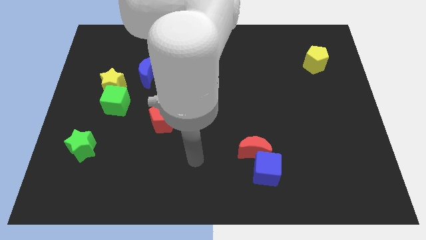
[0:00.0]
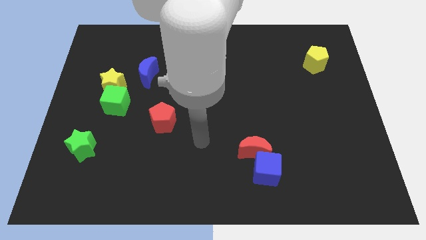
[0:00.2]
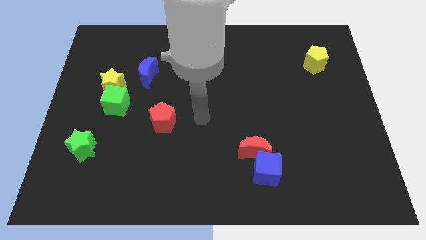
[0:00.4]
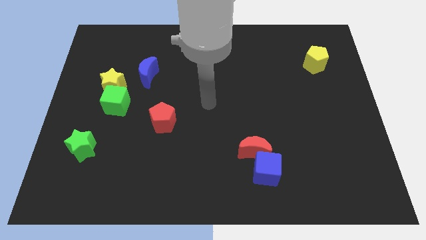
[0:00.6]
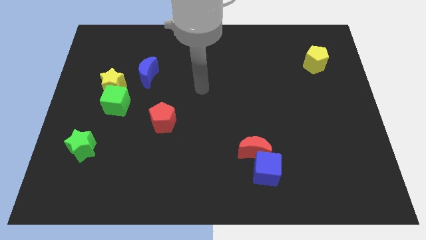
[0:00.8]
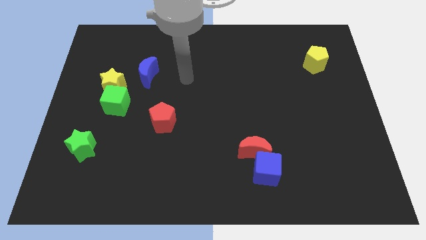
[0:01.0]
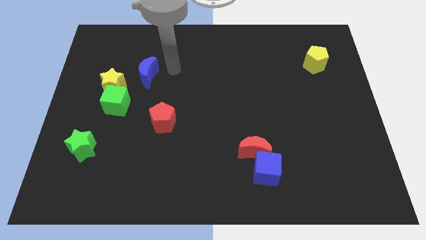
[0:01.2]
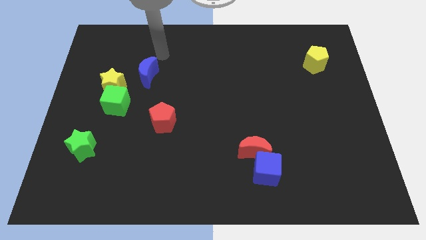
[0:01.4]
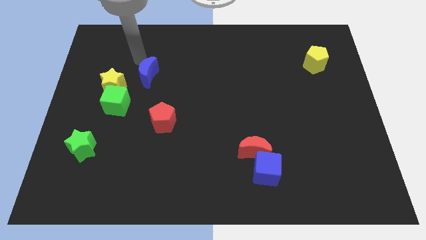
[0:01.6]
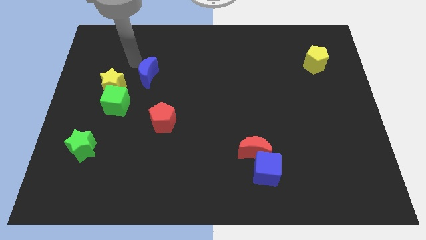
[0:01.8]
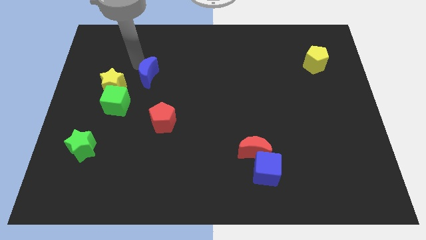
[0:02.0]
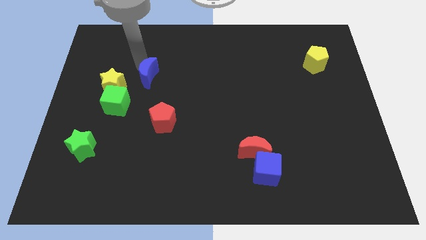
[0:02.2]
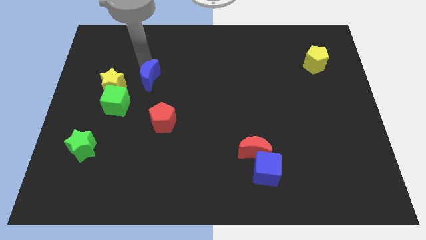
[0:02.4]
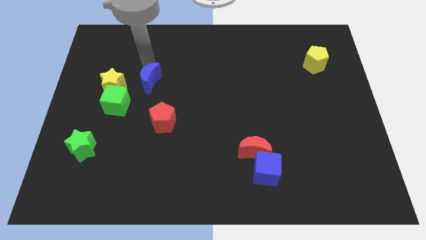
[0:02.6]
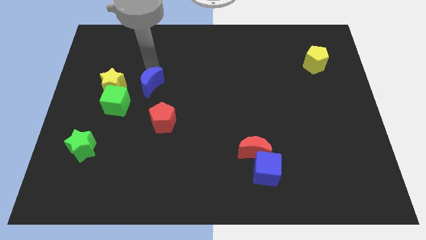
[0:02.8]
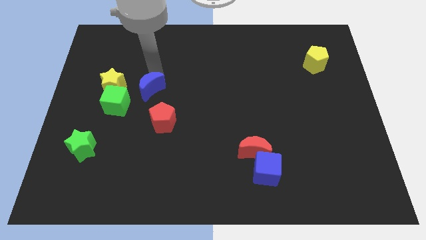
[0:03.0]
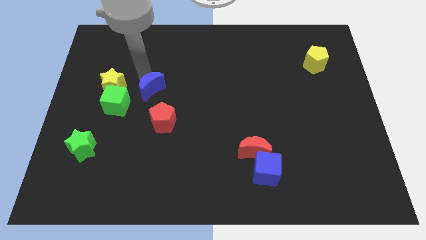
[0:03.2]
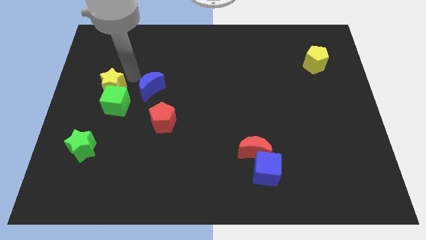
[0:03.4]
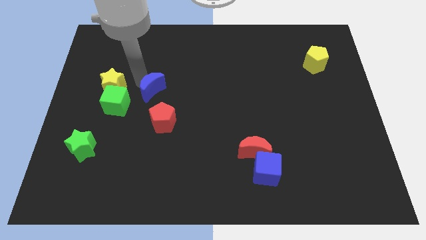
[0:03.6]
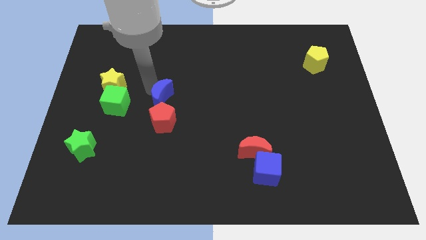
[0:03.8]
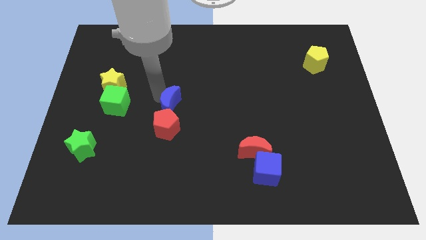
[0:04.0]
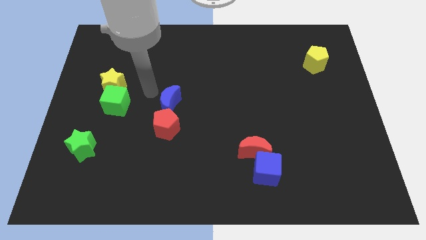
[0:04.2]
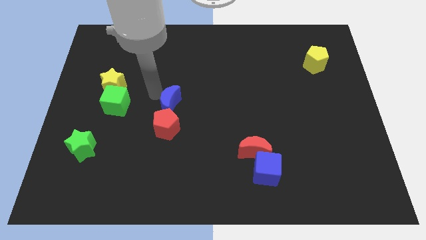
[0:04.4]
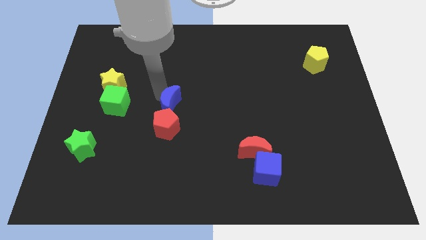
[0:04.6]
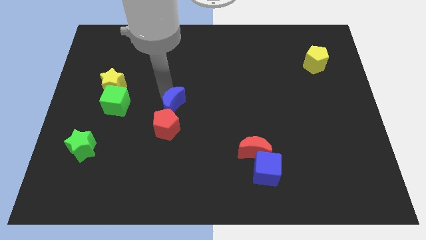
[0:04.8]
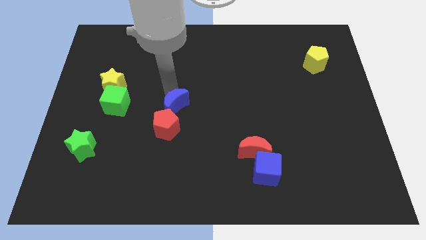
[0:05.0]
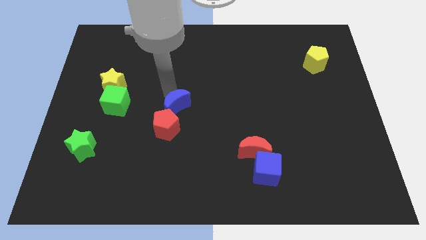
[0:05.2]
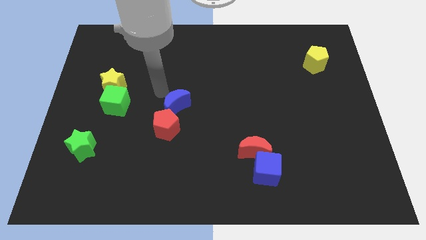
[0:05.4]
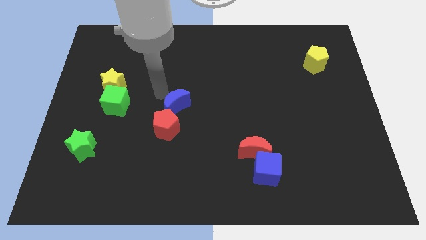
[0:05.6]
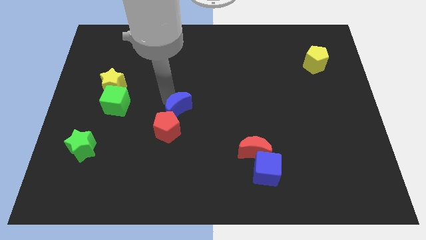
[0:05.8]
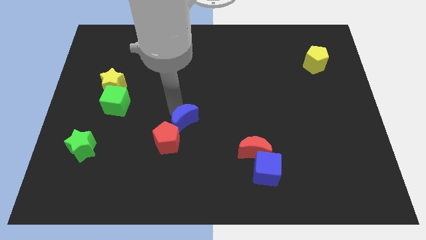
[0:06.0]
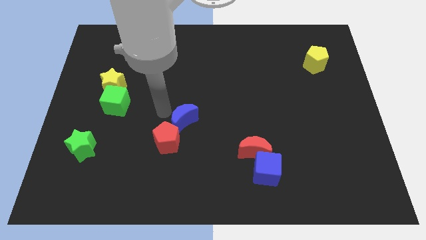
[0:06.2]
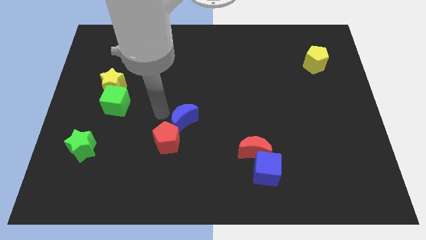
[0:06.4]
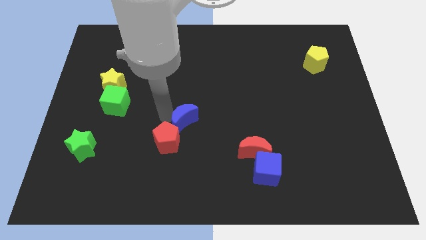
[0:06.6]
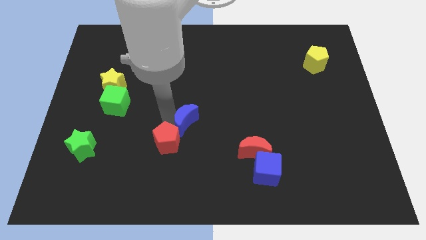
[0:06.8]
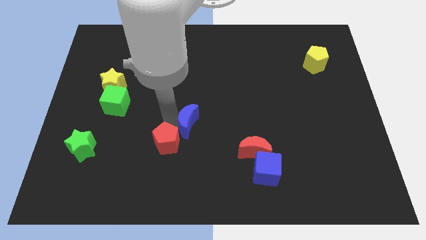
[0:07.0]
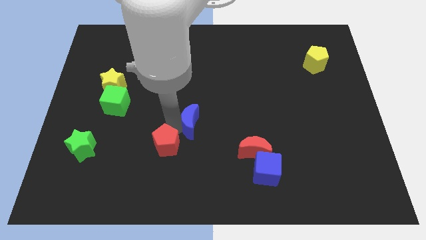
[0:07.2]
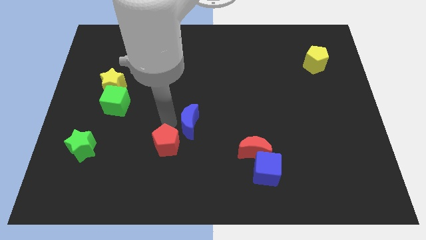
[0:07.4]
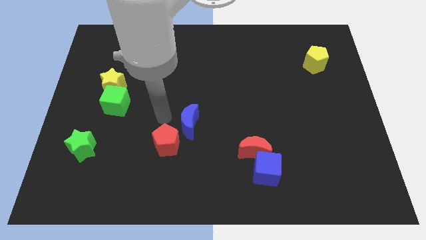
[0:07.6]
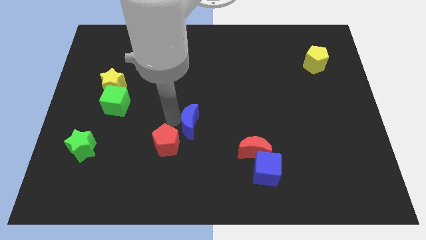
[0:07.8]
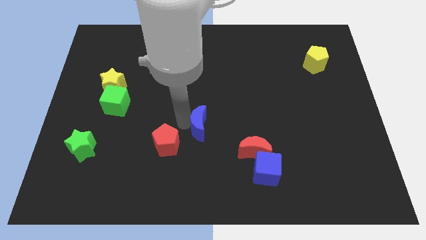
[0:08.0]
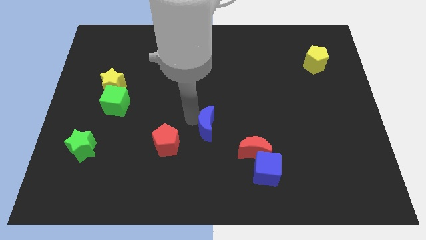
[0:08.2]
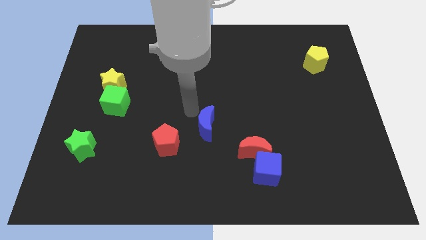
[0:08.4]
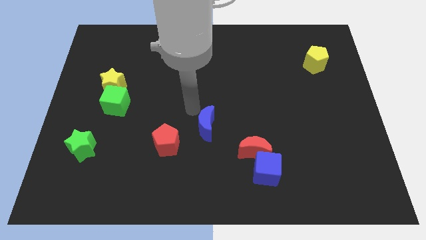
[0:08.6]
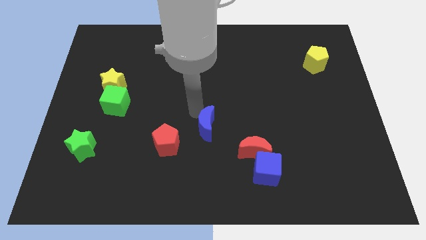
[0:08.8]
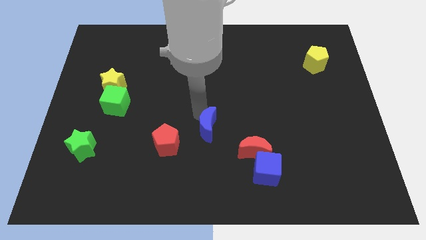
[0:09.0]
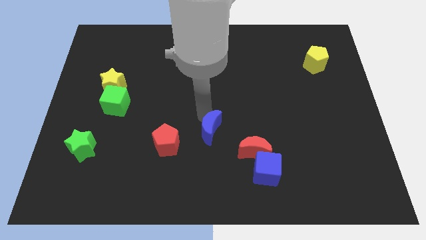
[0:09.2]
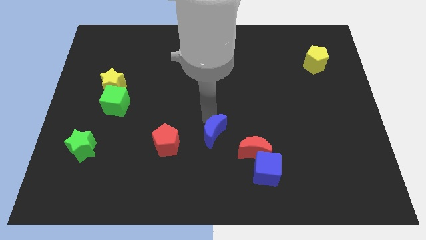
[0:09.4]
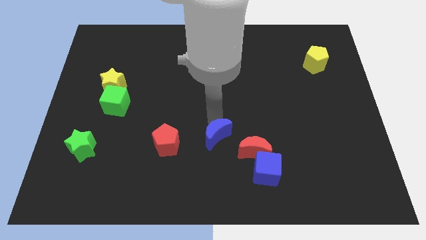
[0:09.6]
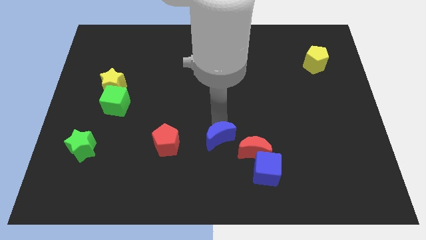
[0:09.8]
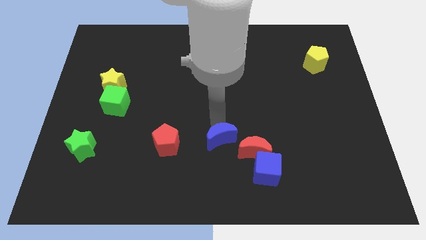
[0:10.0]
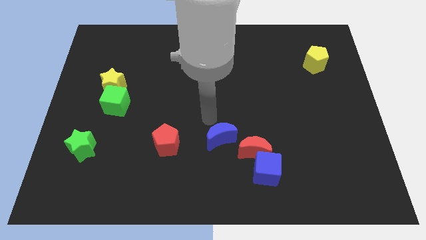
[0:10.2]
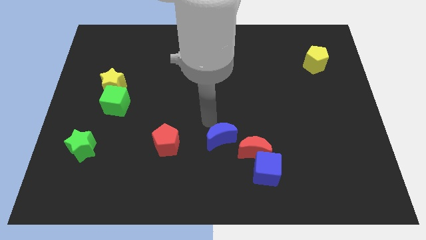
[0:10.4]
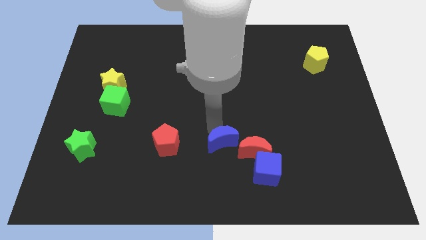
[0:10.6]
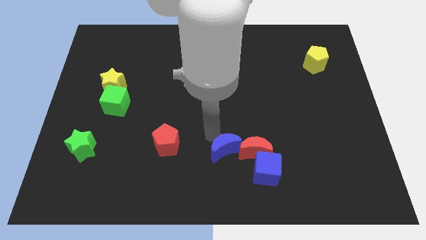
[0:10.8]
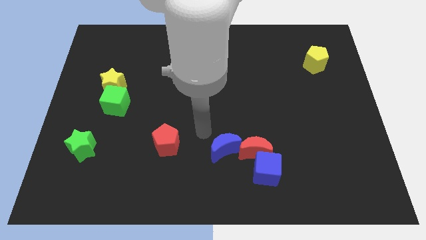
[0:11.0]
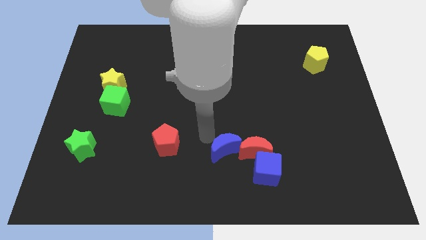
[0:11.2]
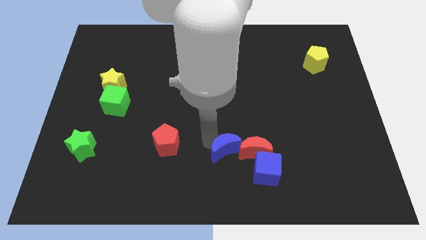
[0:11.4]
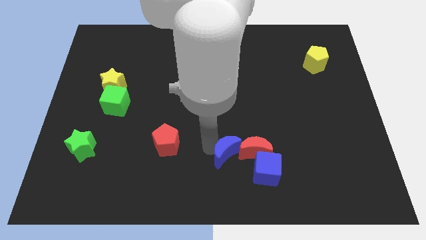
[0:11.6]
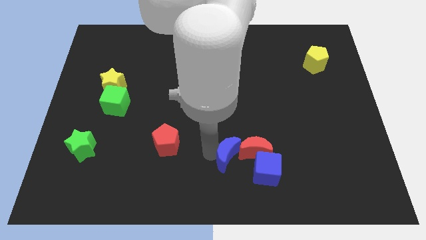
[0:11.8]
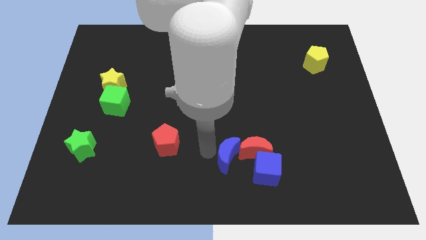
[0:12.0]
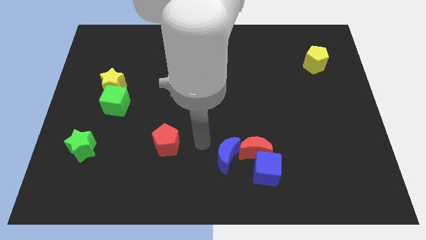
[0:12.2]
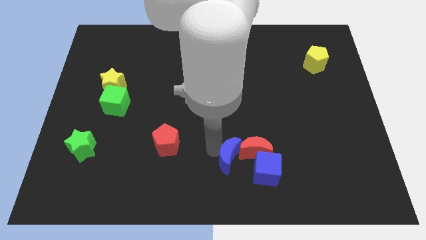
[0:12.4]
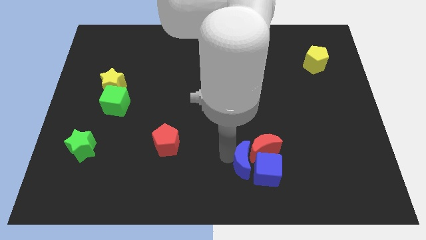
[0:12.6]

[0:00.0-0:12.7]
move the blue moon next to the blue cube
